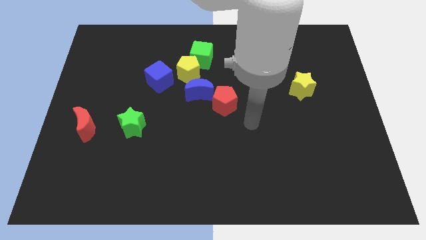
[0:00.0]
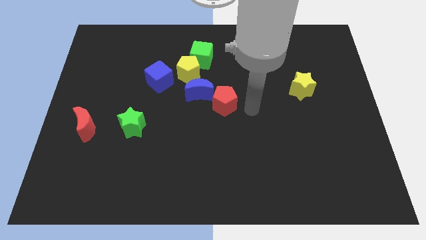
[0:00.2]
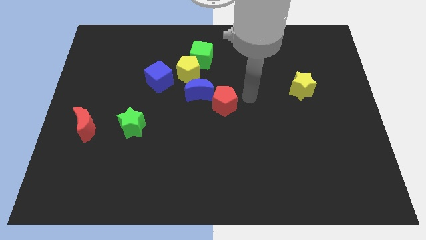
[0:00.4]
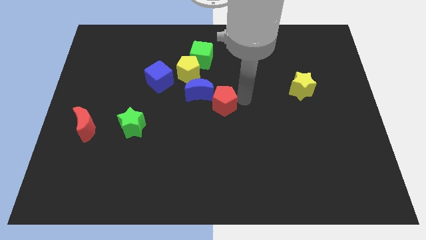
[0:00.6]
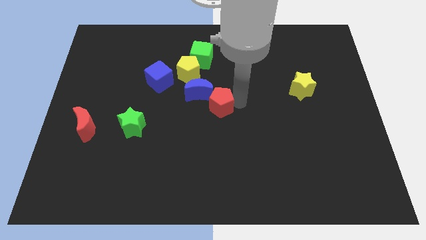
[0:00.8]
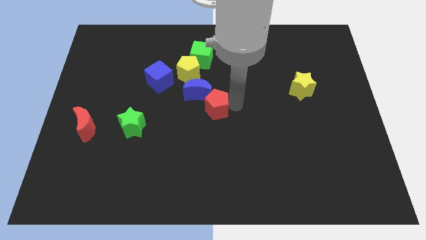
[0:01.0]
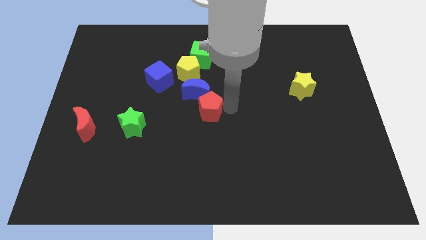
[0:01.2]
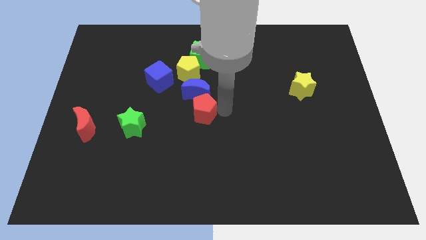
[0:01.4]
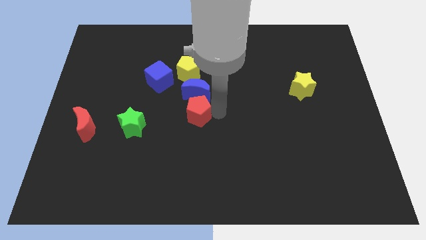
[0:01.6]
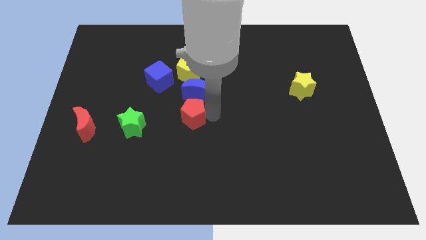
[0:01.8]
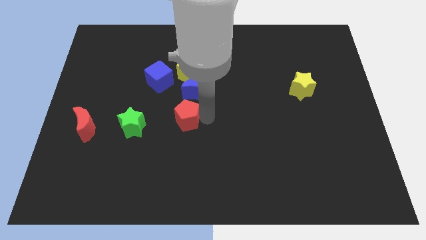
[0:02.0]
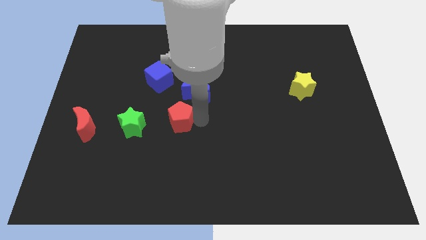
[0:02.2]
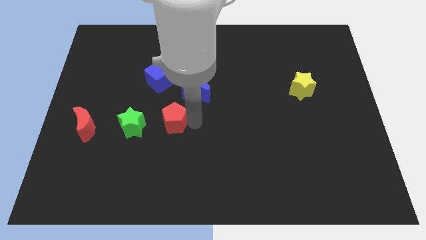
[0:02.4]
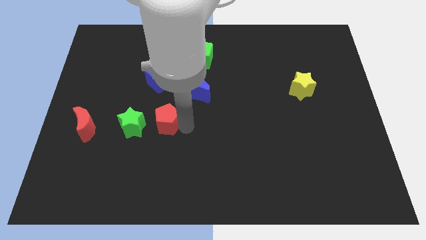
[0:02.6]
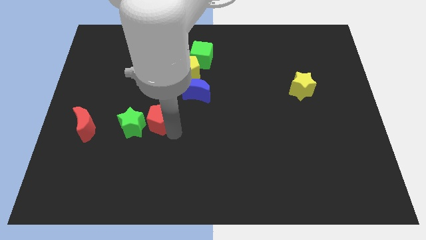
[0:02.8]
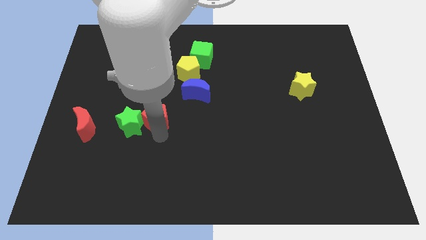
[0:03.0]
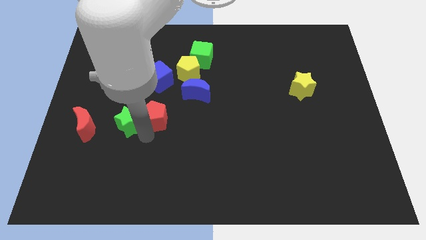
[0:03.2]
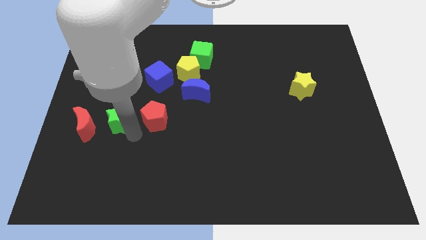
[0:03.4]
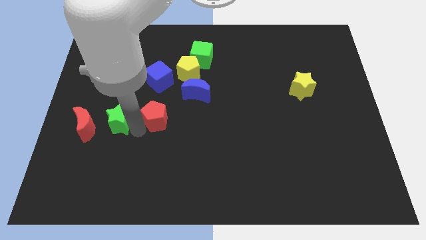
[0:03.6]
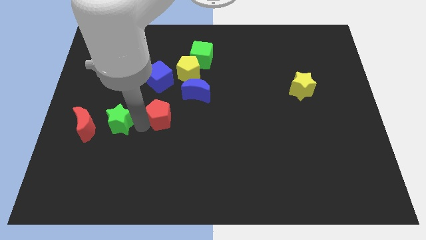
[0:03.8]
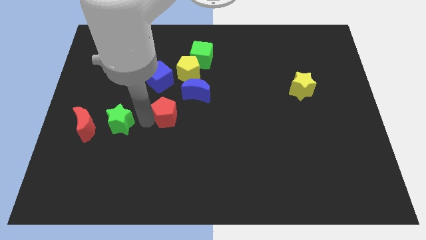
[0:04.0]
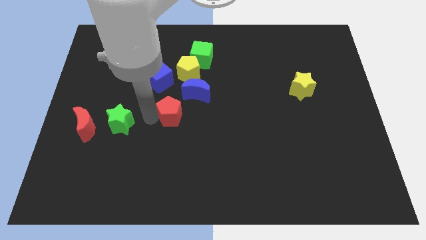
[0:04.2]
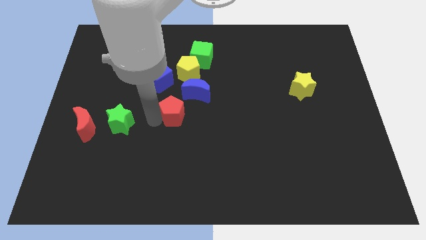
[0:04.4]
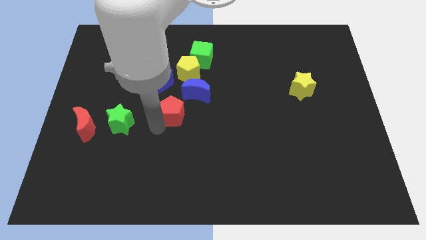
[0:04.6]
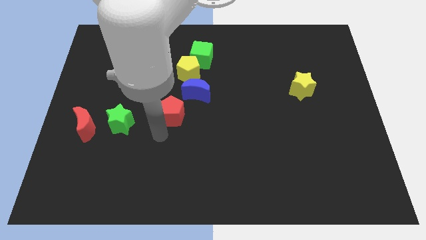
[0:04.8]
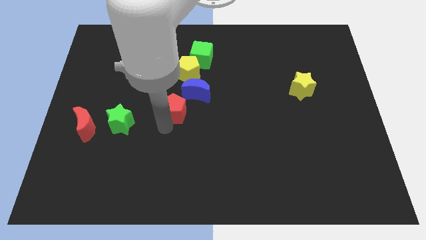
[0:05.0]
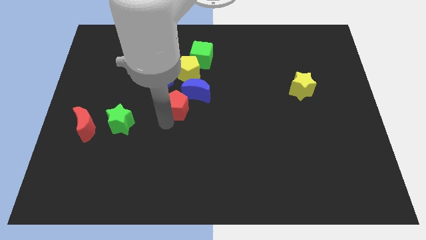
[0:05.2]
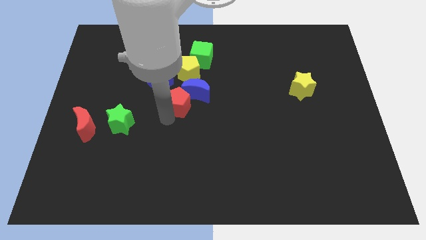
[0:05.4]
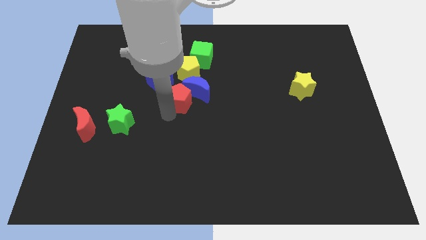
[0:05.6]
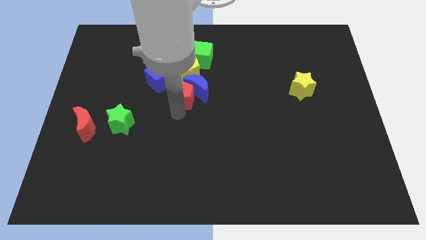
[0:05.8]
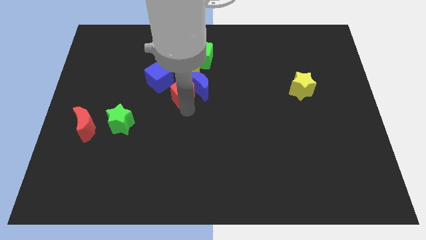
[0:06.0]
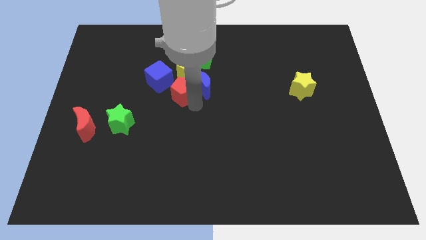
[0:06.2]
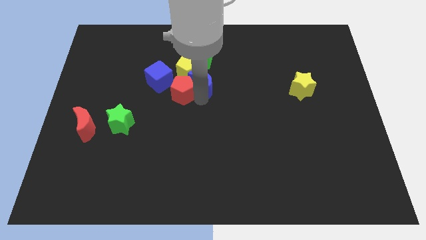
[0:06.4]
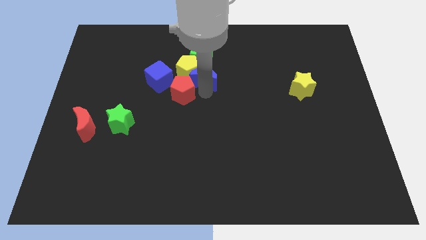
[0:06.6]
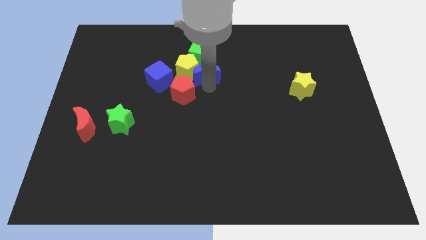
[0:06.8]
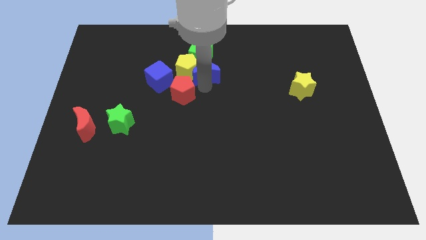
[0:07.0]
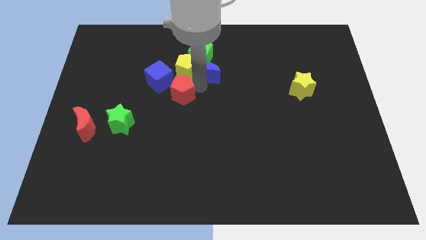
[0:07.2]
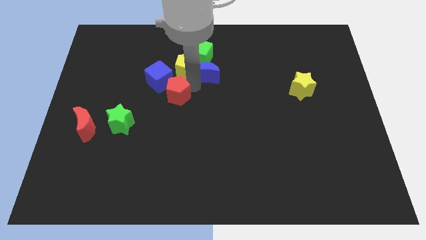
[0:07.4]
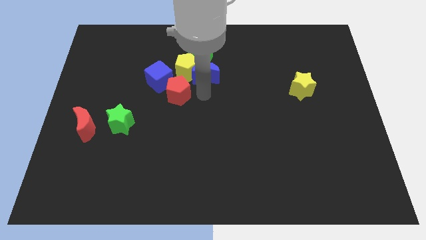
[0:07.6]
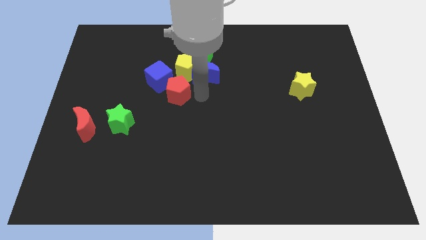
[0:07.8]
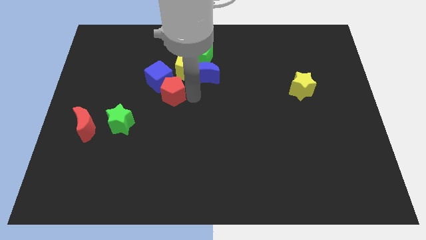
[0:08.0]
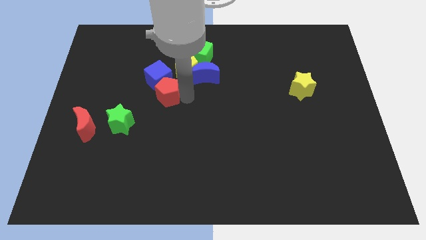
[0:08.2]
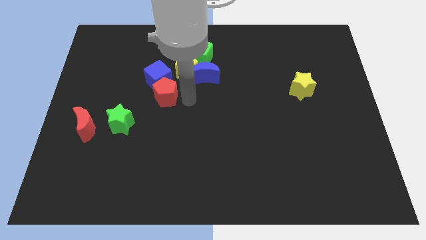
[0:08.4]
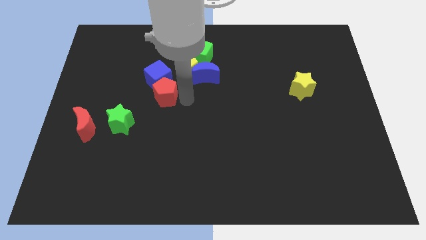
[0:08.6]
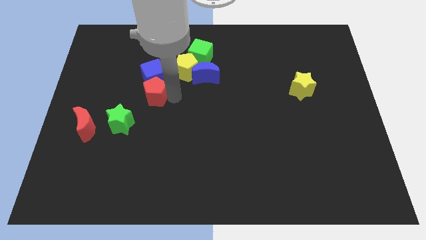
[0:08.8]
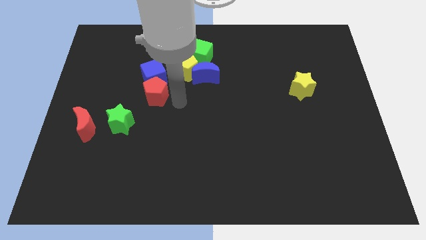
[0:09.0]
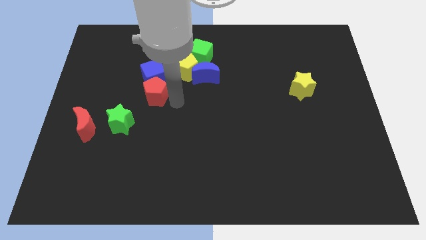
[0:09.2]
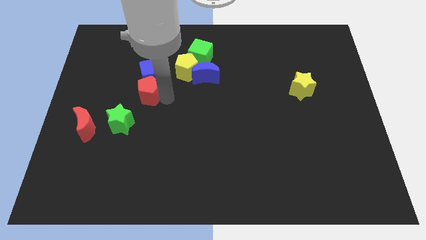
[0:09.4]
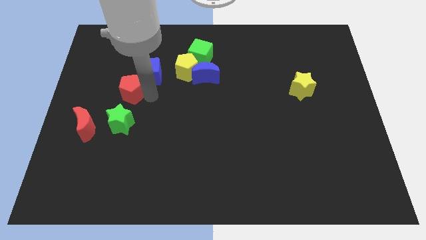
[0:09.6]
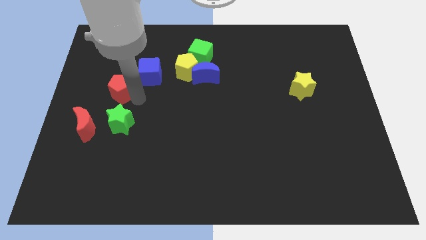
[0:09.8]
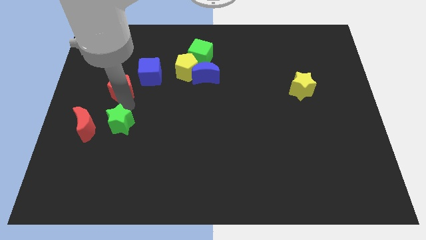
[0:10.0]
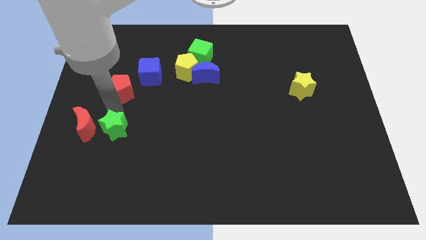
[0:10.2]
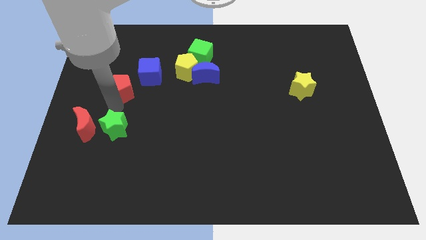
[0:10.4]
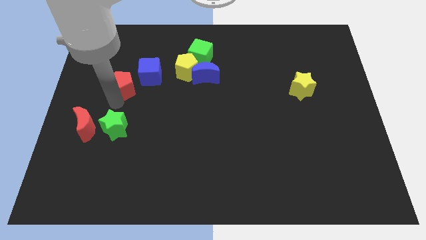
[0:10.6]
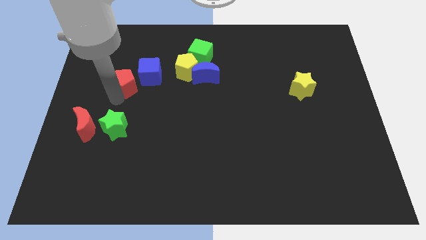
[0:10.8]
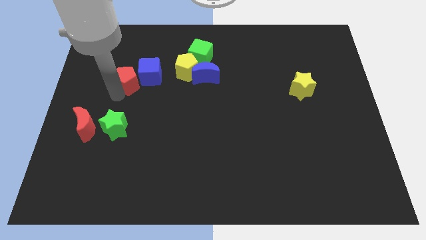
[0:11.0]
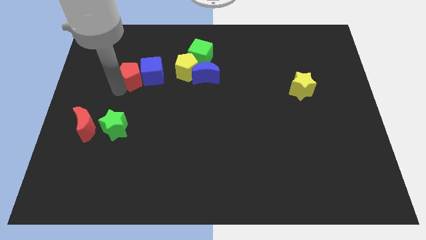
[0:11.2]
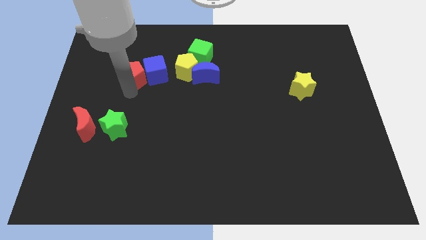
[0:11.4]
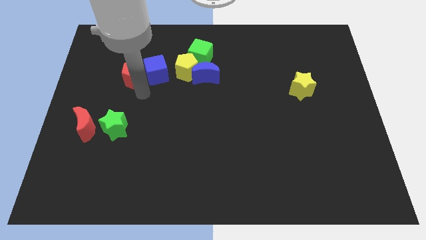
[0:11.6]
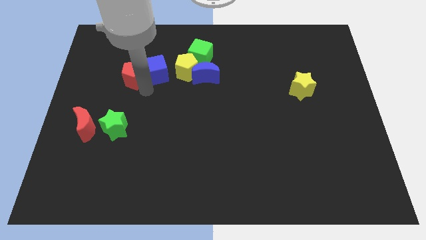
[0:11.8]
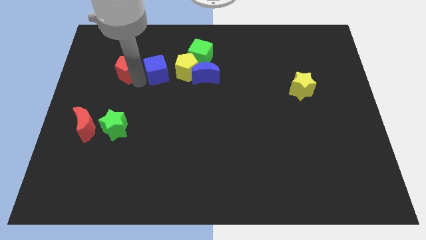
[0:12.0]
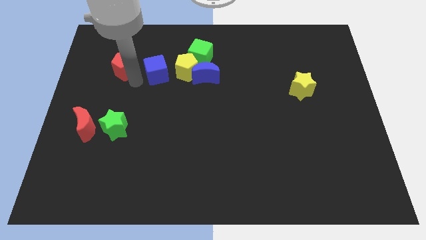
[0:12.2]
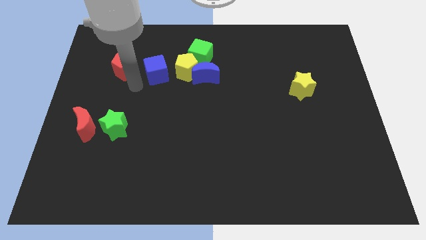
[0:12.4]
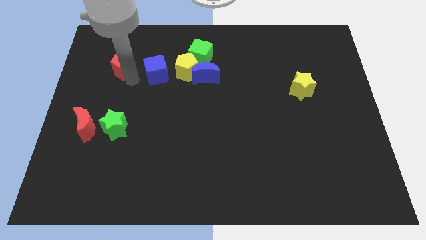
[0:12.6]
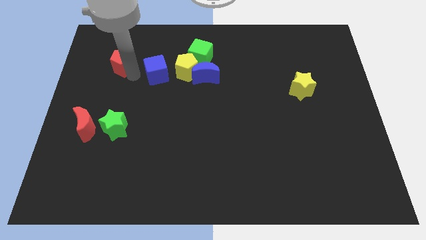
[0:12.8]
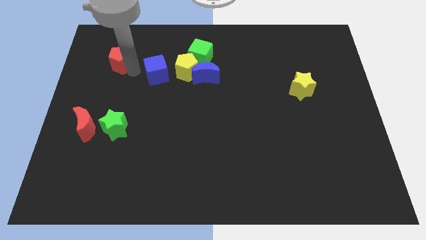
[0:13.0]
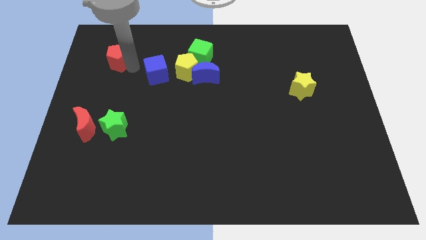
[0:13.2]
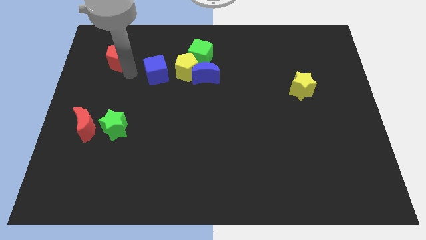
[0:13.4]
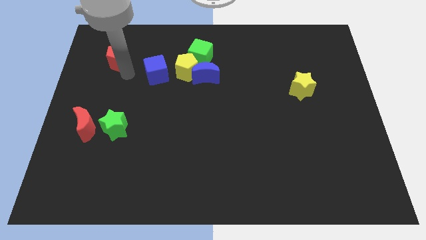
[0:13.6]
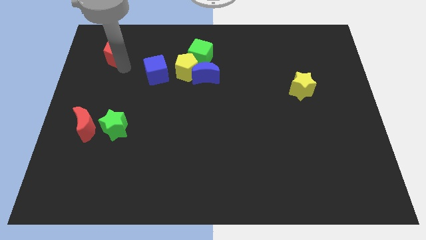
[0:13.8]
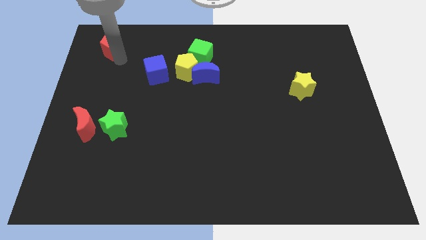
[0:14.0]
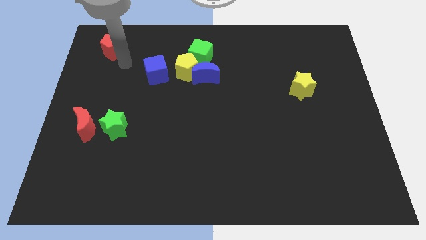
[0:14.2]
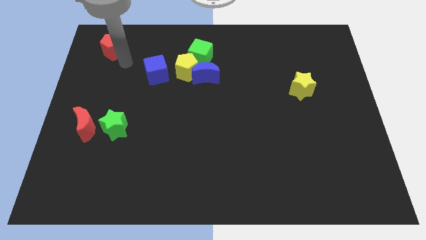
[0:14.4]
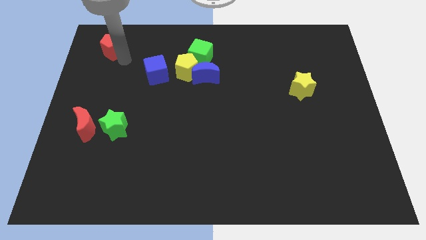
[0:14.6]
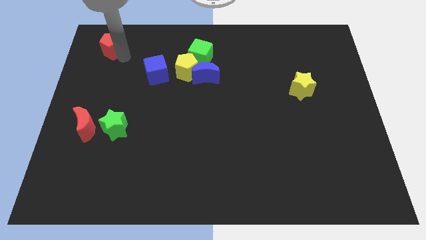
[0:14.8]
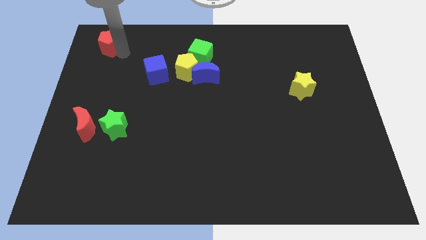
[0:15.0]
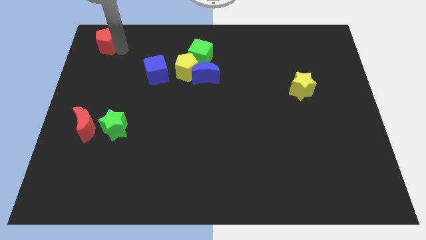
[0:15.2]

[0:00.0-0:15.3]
push the red pentagon to the top left
